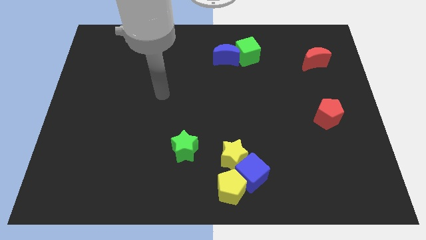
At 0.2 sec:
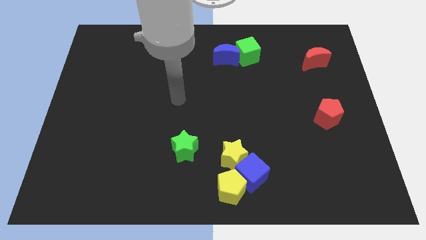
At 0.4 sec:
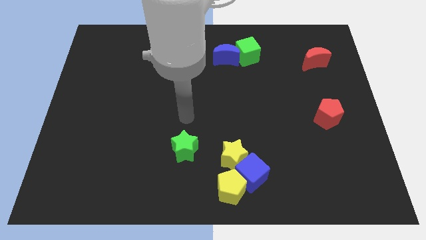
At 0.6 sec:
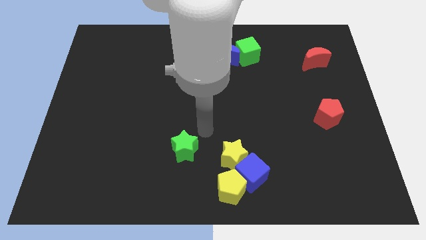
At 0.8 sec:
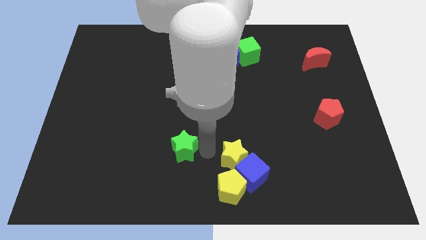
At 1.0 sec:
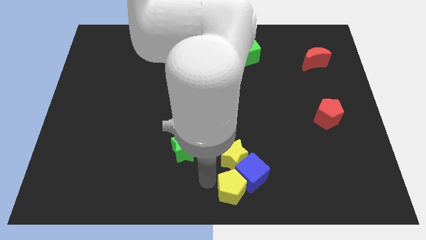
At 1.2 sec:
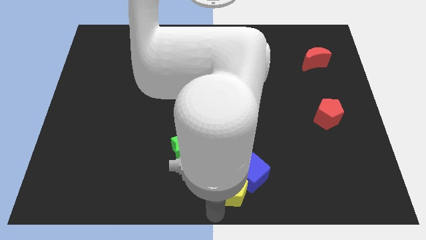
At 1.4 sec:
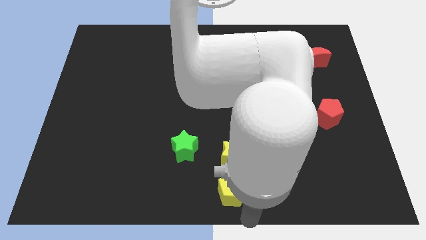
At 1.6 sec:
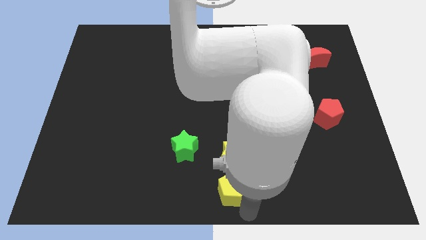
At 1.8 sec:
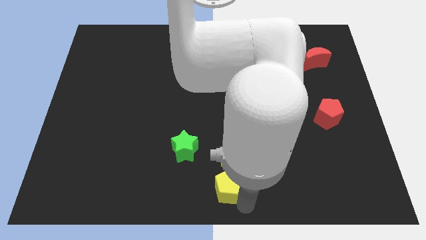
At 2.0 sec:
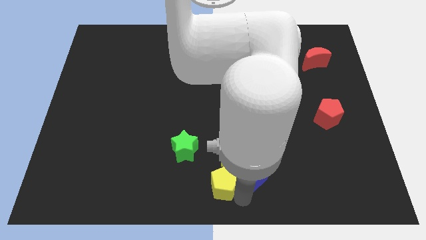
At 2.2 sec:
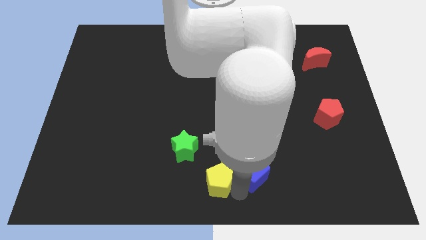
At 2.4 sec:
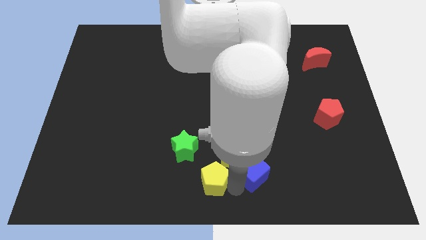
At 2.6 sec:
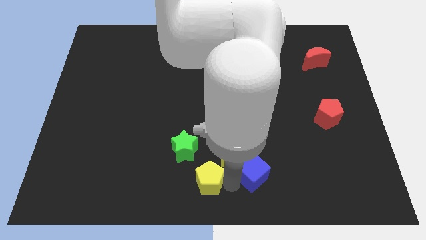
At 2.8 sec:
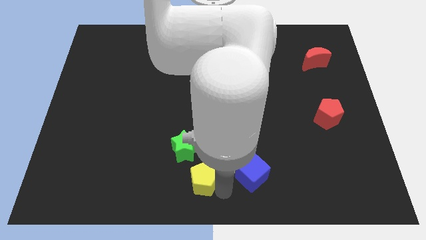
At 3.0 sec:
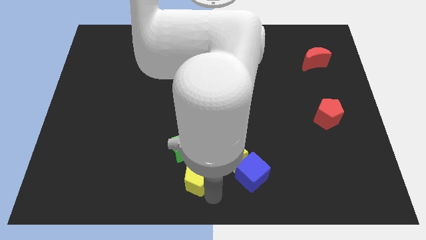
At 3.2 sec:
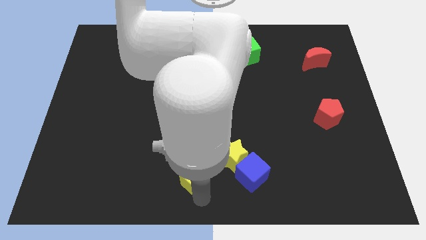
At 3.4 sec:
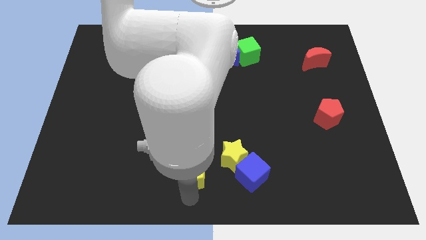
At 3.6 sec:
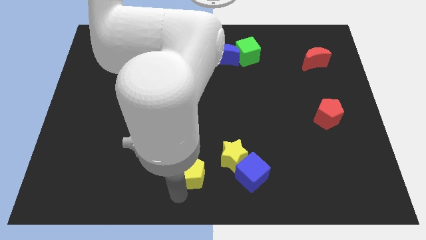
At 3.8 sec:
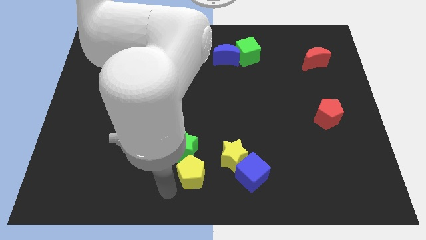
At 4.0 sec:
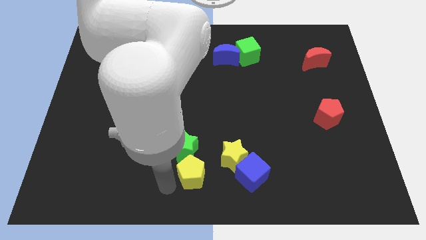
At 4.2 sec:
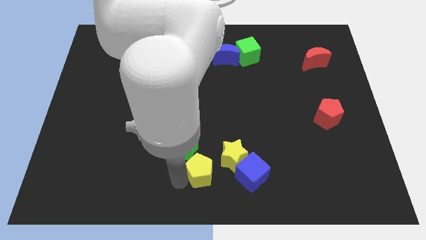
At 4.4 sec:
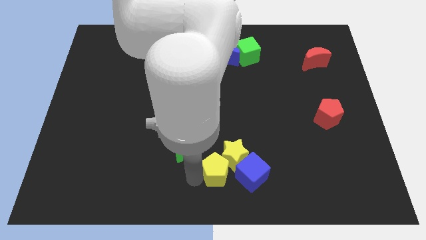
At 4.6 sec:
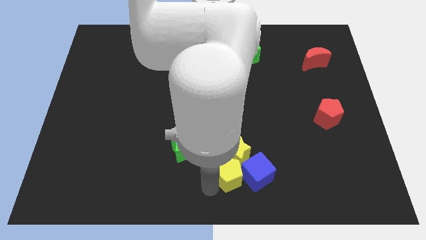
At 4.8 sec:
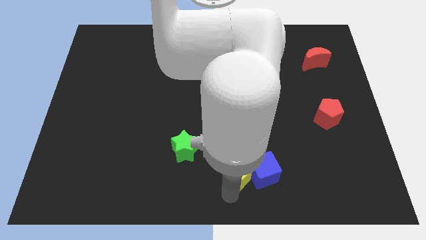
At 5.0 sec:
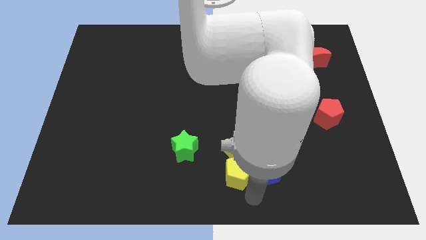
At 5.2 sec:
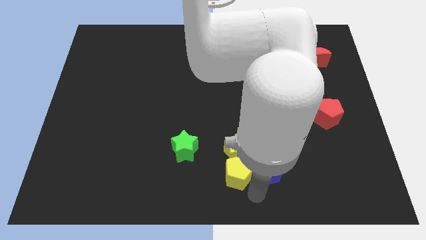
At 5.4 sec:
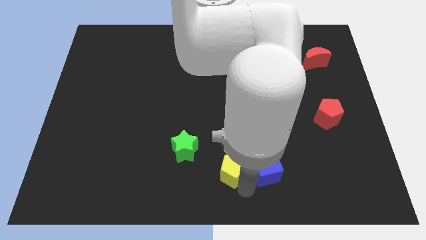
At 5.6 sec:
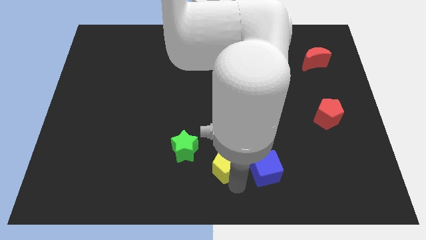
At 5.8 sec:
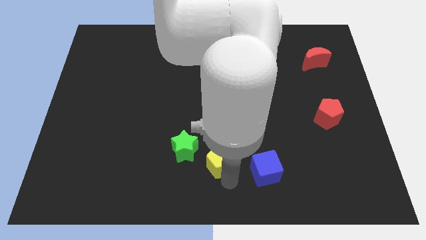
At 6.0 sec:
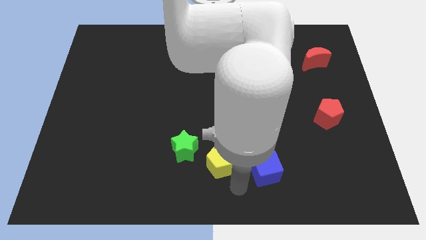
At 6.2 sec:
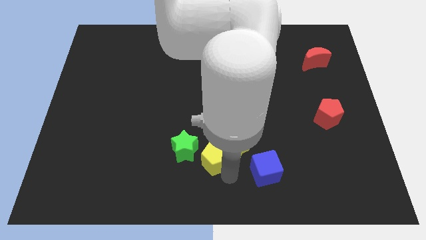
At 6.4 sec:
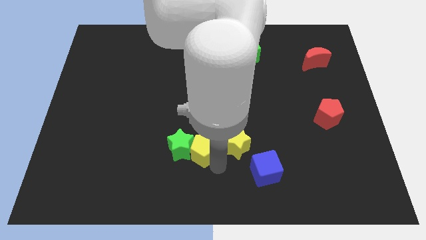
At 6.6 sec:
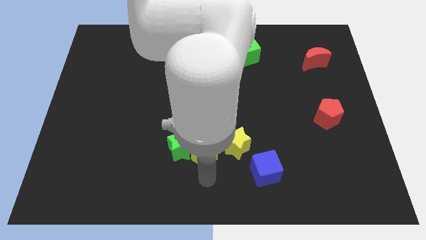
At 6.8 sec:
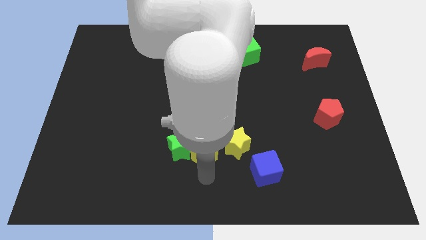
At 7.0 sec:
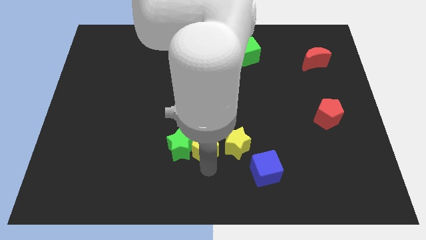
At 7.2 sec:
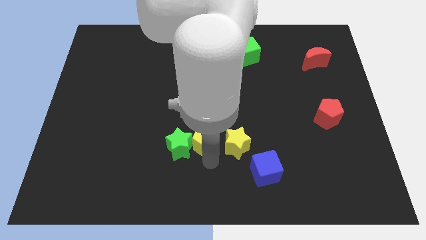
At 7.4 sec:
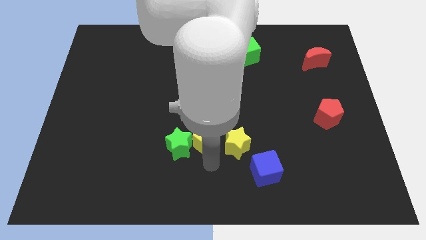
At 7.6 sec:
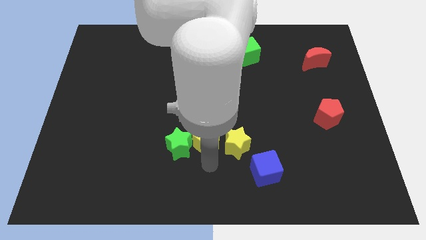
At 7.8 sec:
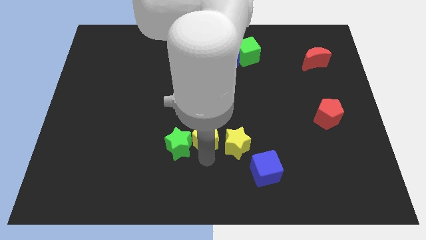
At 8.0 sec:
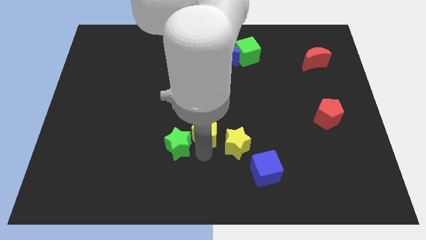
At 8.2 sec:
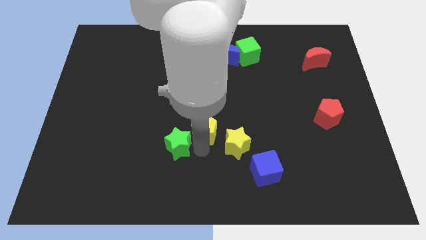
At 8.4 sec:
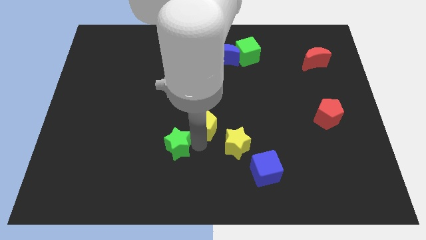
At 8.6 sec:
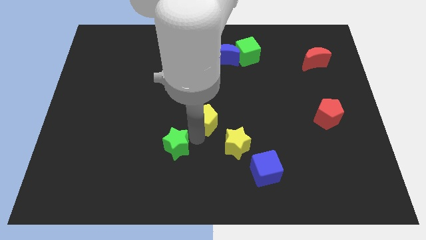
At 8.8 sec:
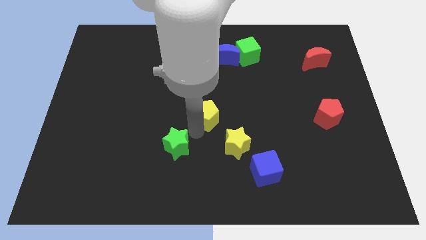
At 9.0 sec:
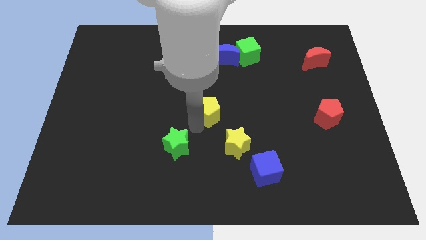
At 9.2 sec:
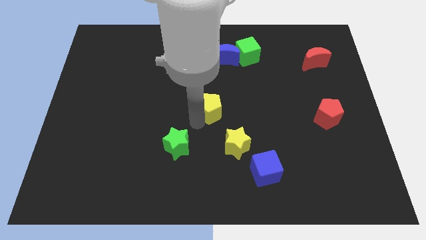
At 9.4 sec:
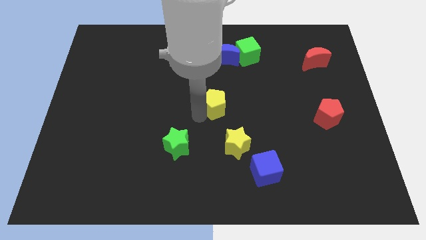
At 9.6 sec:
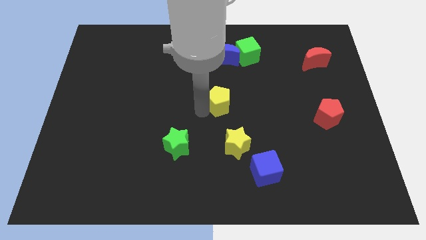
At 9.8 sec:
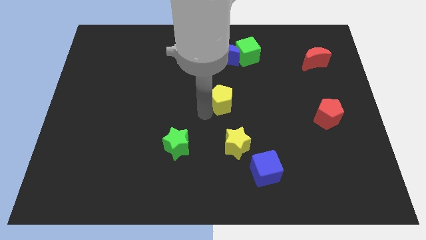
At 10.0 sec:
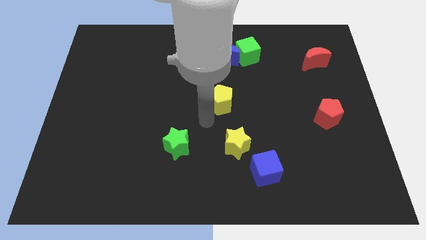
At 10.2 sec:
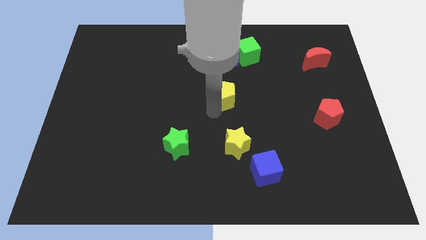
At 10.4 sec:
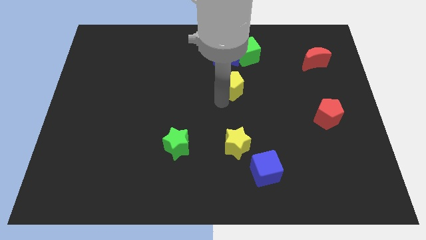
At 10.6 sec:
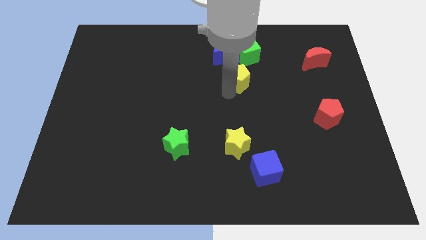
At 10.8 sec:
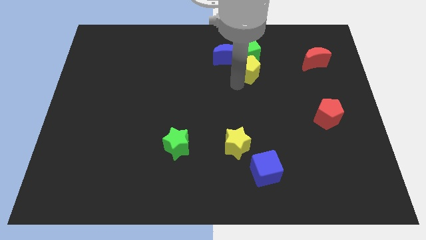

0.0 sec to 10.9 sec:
put the yellow pentagon close to the green cube

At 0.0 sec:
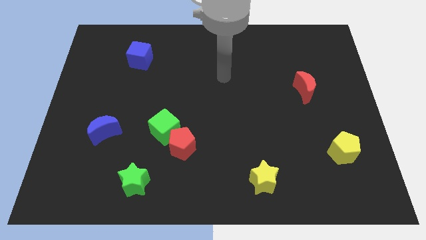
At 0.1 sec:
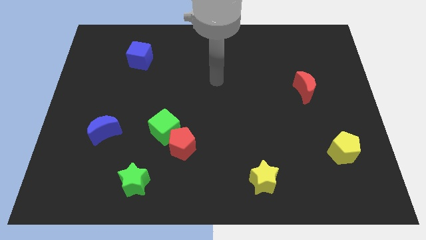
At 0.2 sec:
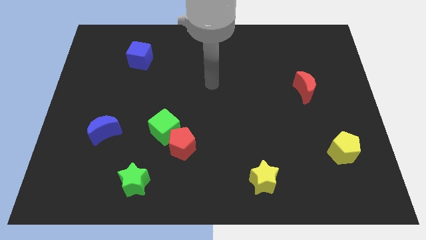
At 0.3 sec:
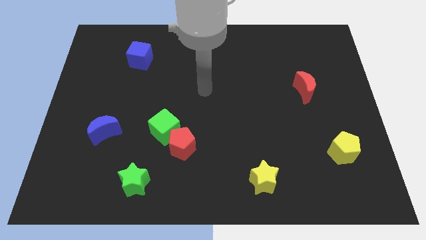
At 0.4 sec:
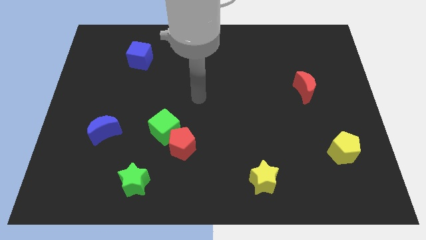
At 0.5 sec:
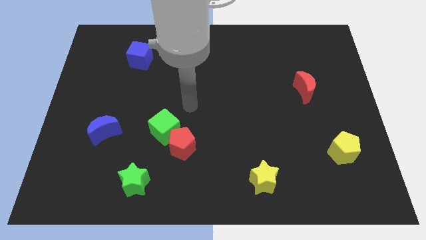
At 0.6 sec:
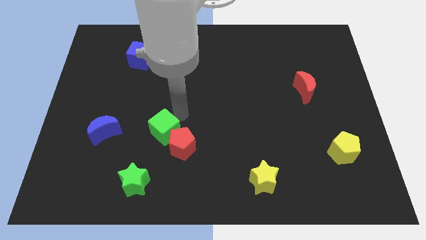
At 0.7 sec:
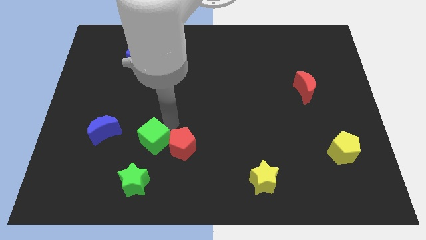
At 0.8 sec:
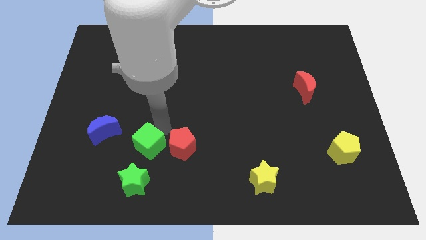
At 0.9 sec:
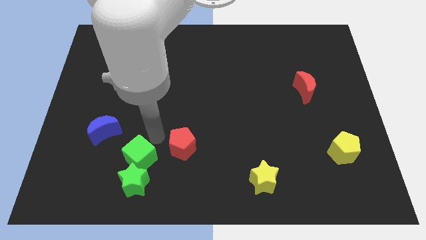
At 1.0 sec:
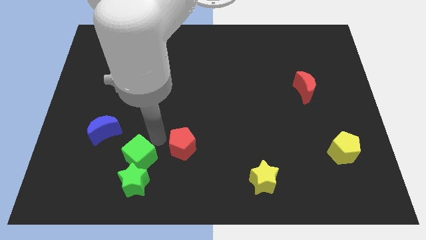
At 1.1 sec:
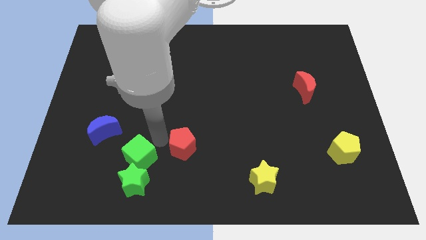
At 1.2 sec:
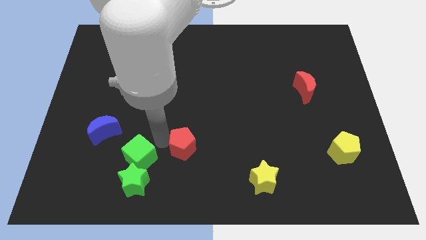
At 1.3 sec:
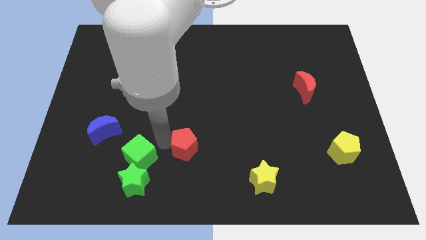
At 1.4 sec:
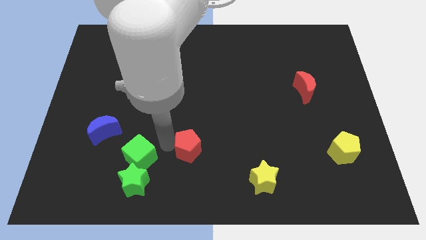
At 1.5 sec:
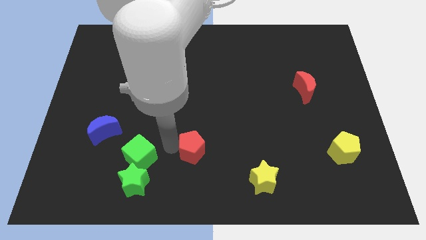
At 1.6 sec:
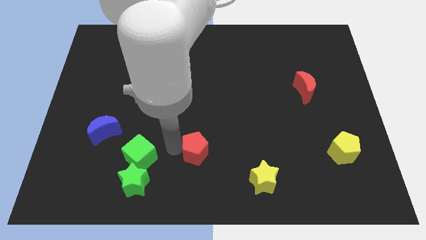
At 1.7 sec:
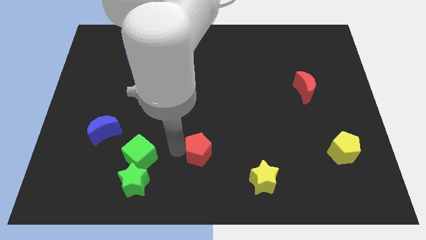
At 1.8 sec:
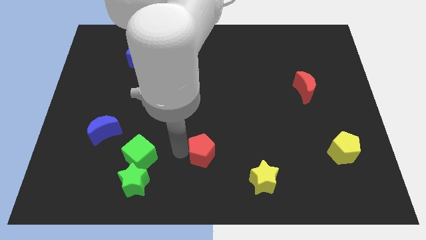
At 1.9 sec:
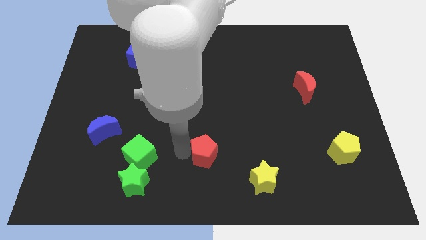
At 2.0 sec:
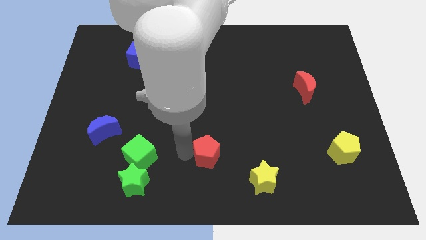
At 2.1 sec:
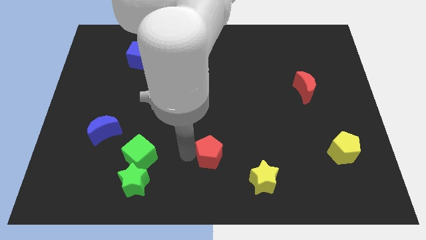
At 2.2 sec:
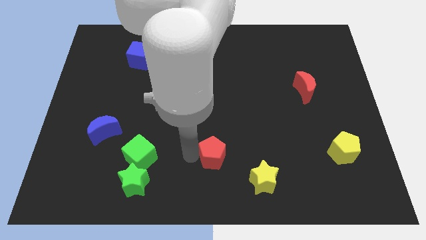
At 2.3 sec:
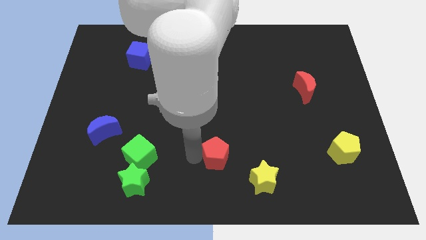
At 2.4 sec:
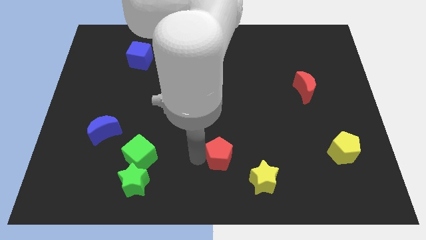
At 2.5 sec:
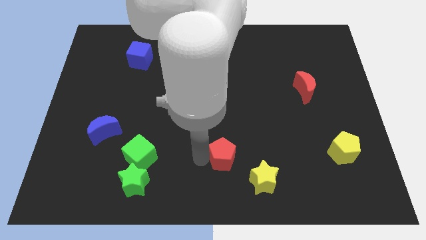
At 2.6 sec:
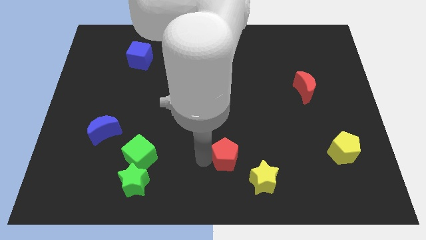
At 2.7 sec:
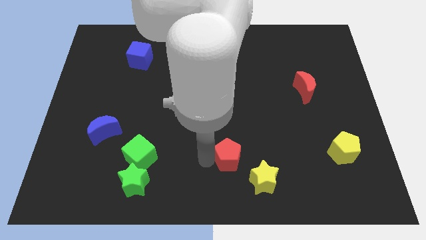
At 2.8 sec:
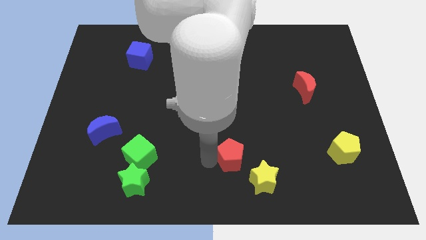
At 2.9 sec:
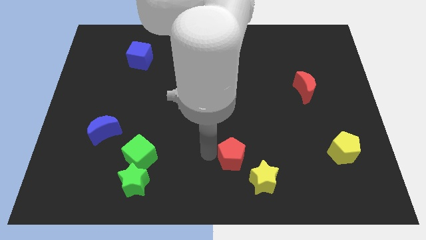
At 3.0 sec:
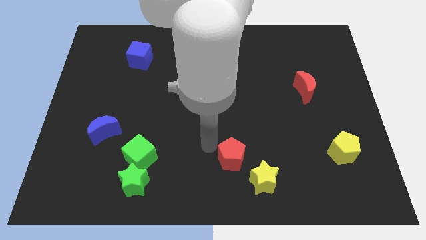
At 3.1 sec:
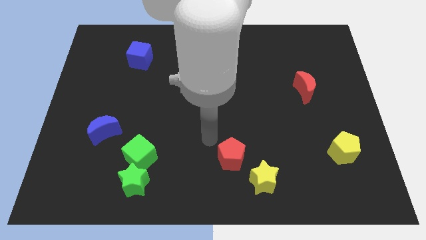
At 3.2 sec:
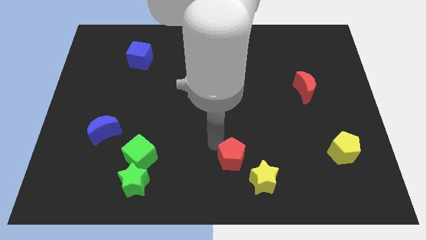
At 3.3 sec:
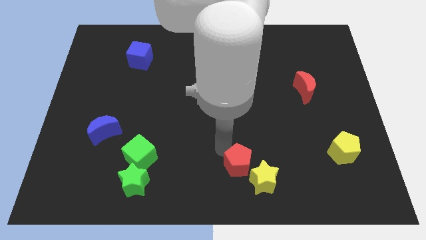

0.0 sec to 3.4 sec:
move the red pentagon towards the yellow star
